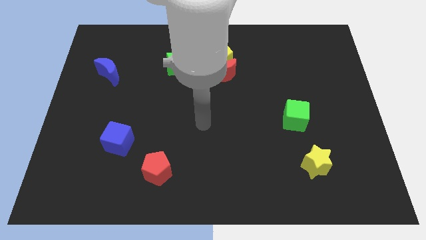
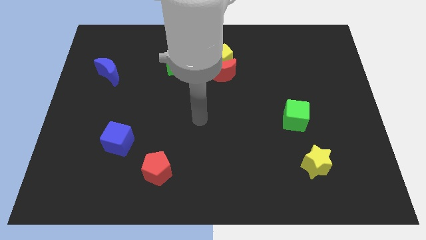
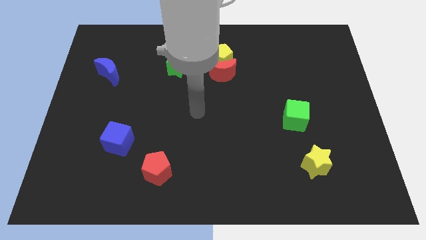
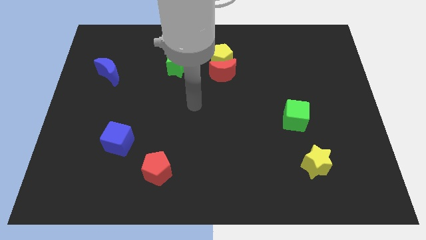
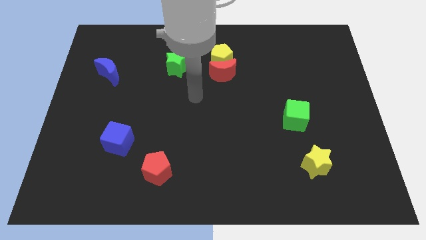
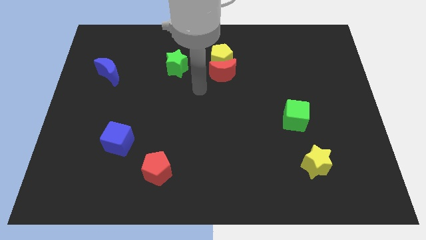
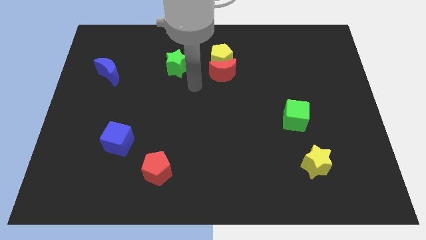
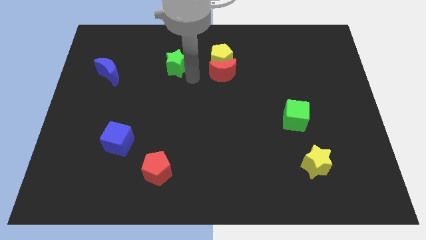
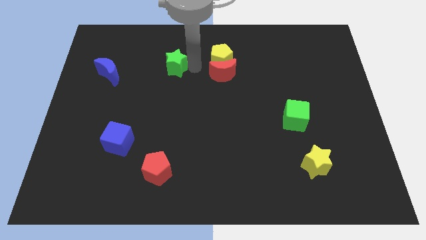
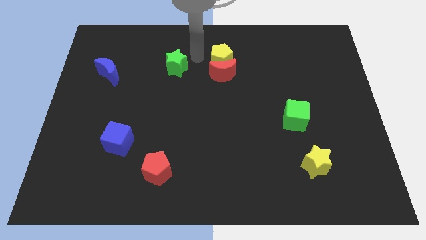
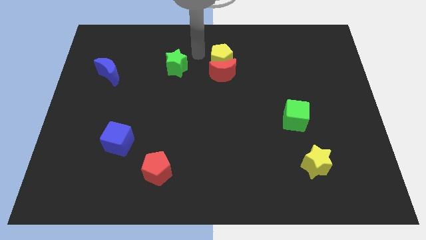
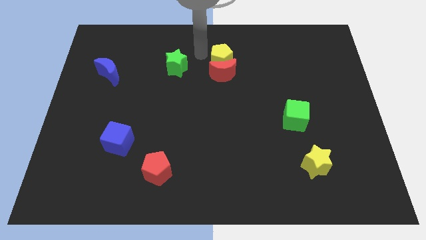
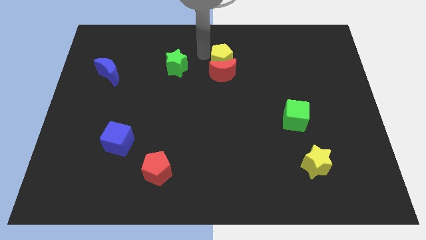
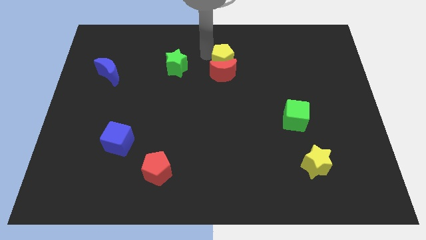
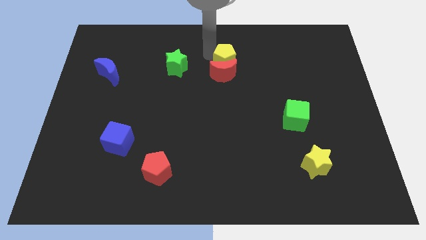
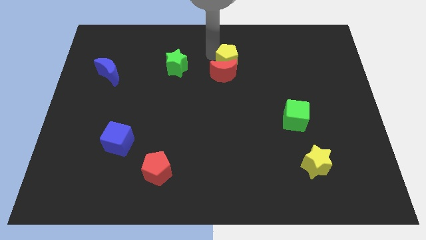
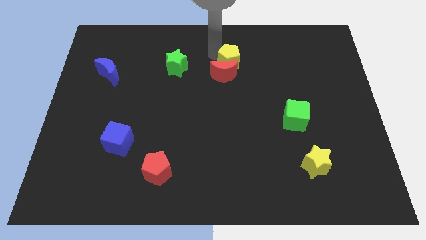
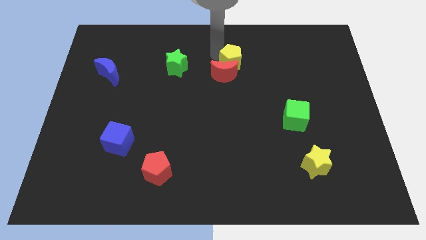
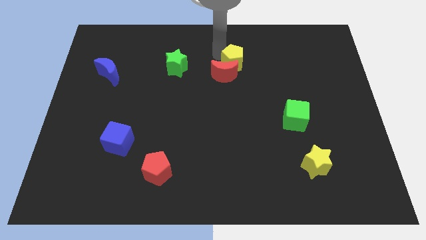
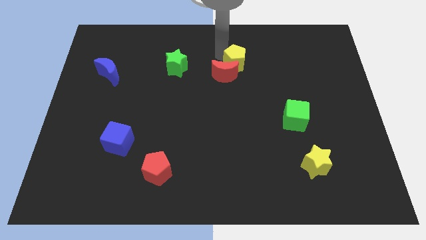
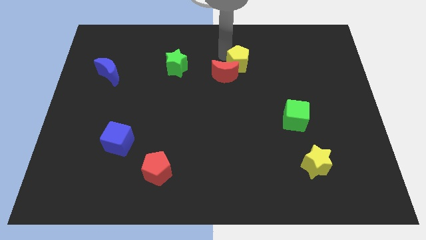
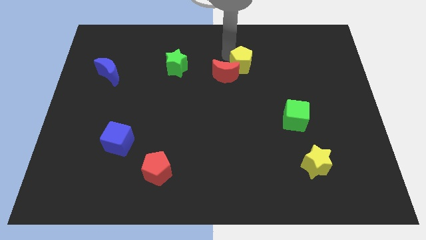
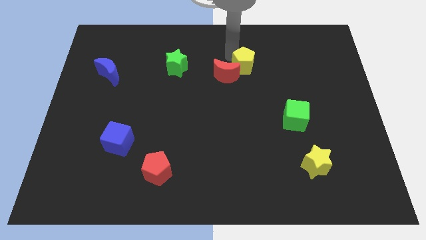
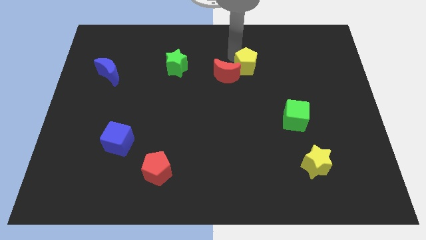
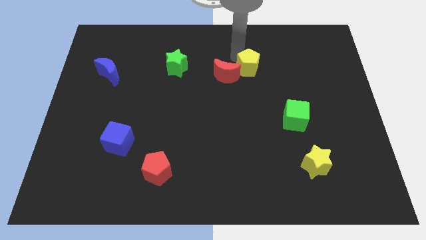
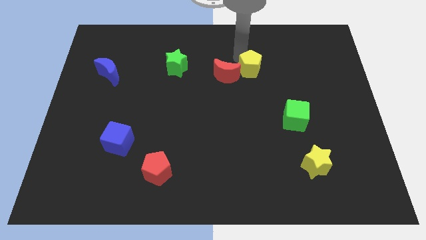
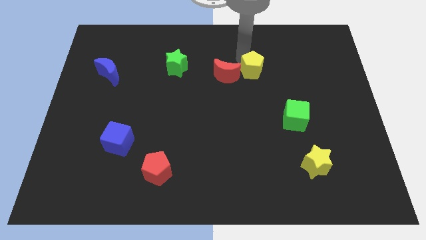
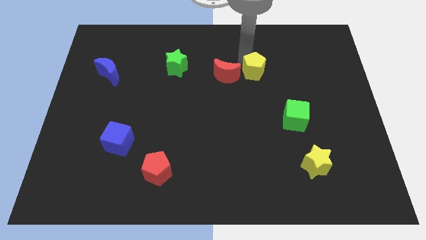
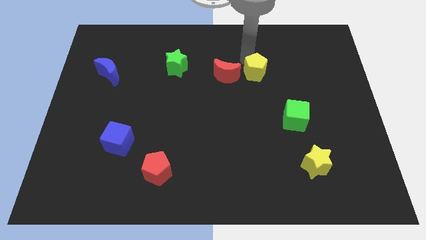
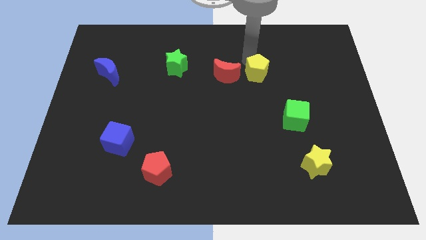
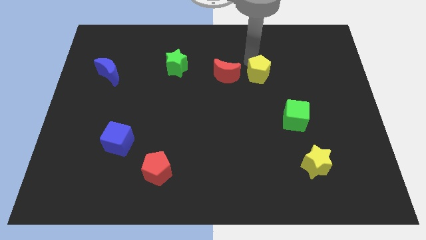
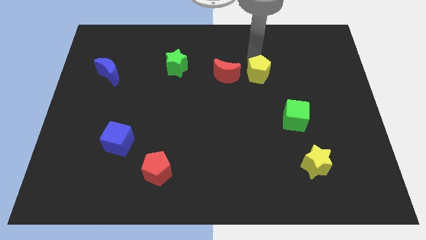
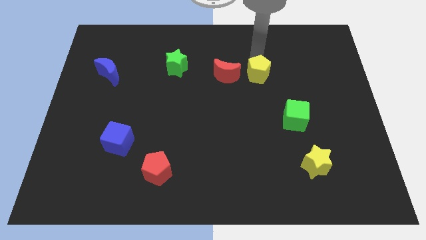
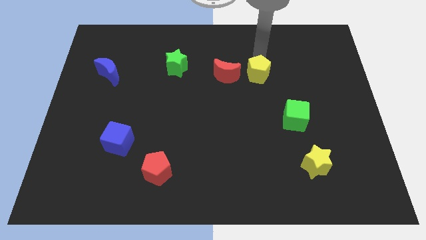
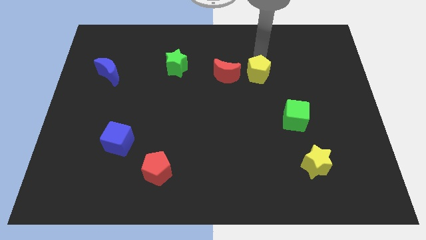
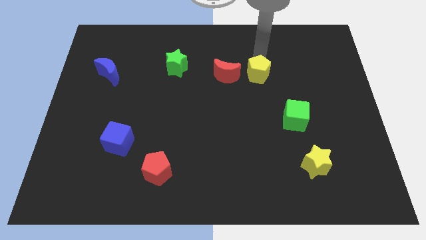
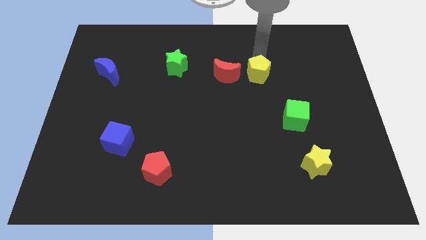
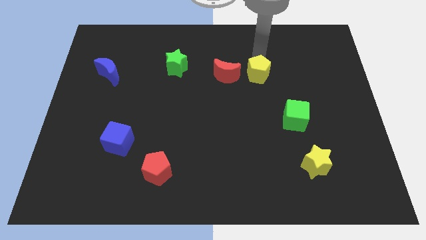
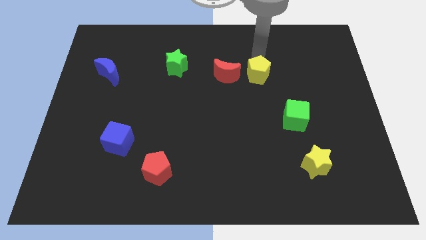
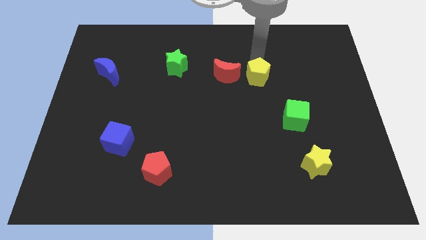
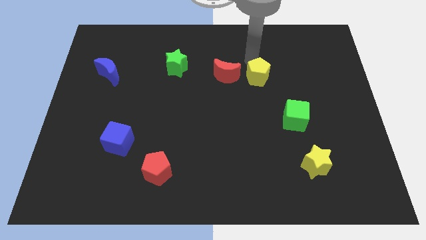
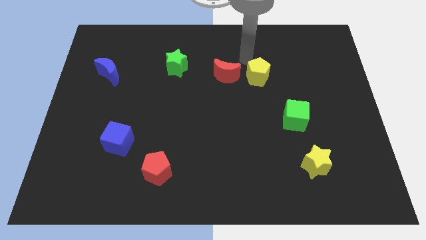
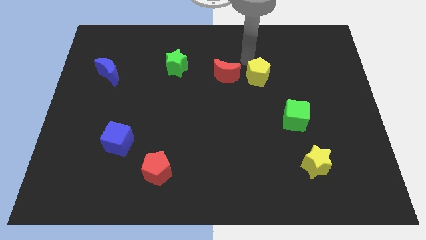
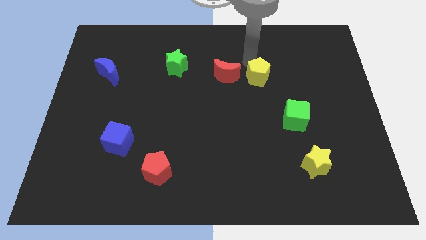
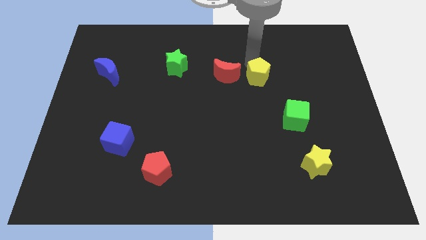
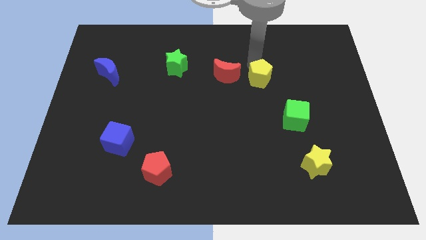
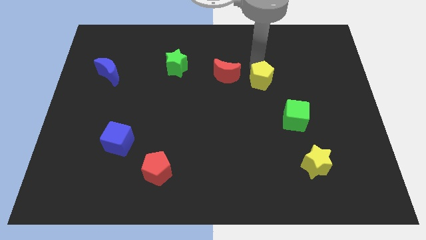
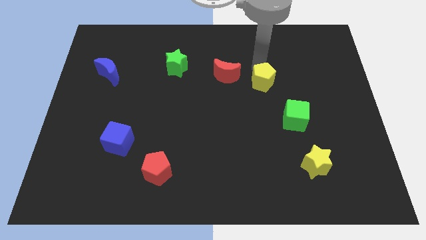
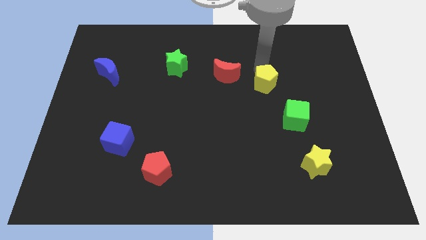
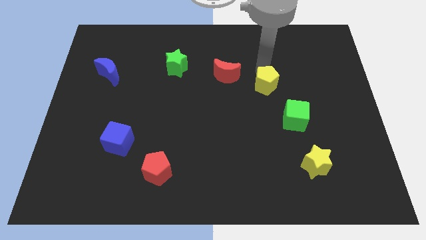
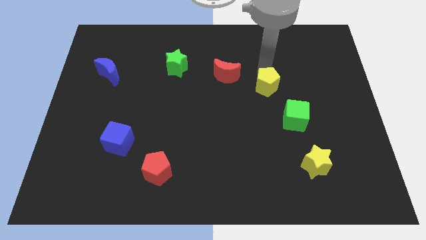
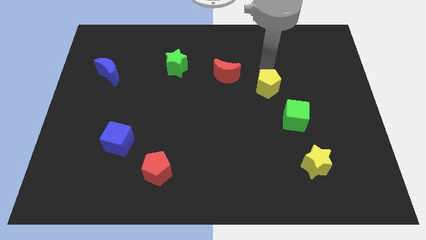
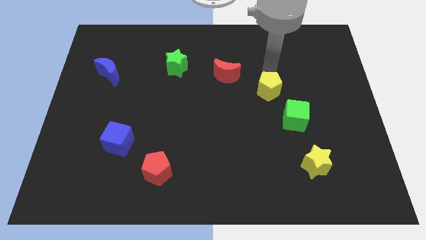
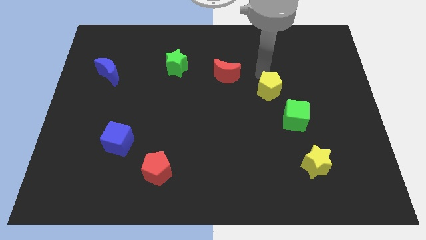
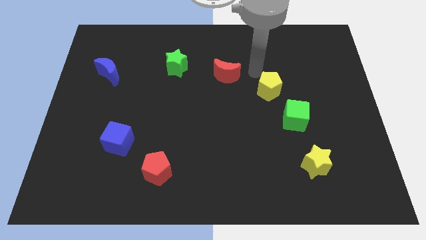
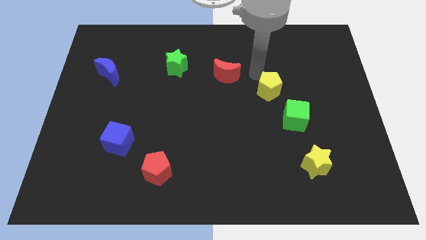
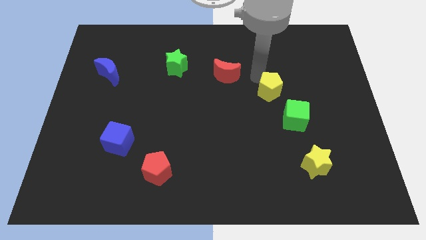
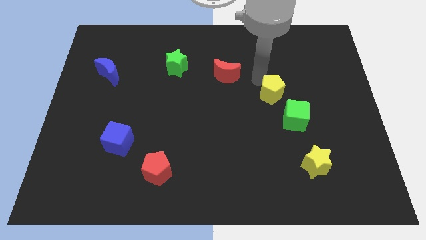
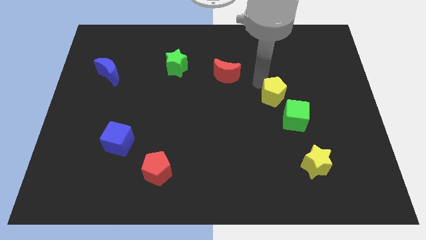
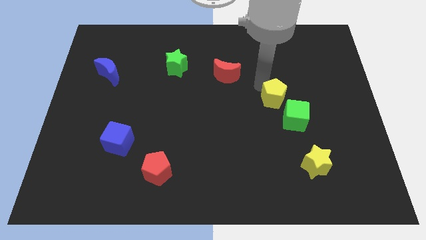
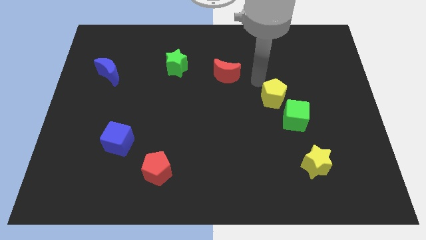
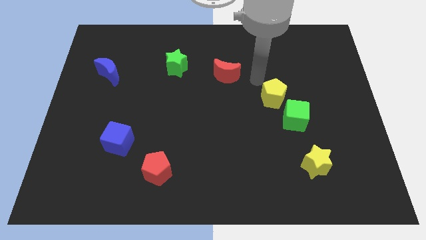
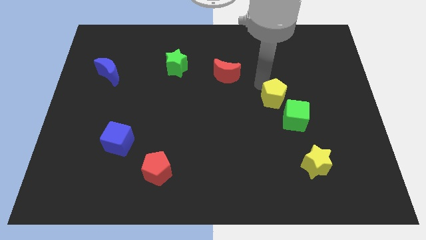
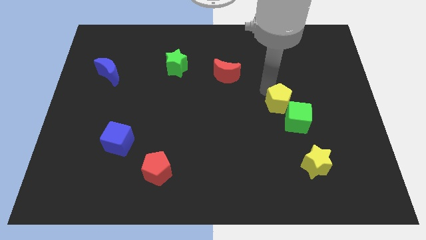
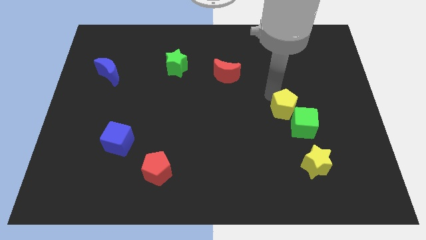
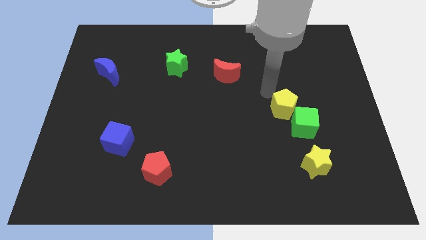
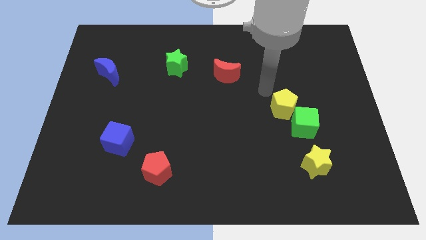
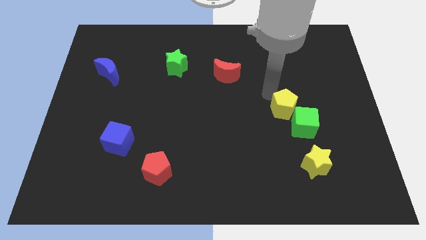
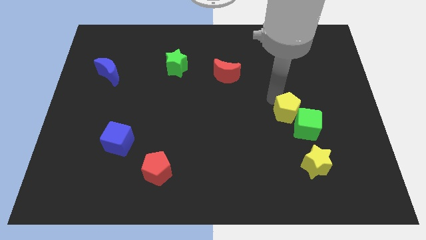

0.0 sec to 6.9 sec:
move the yellow pentagon close to the green cube
